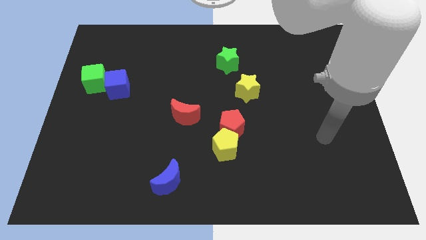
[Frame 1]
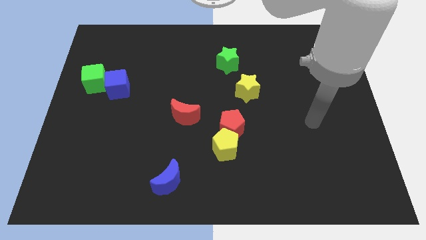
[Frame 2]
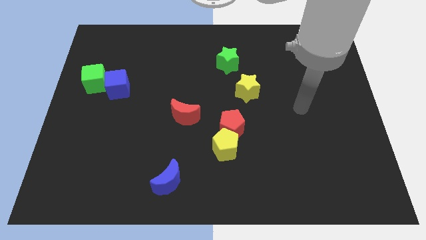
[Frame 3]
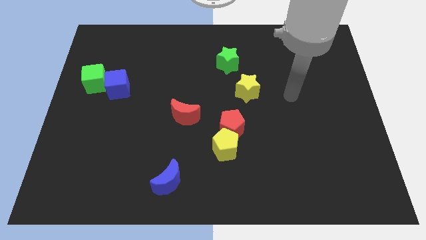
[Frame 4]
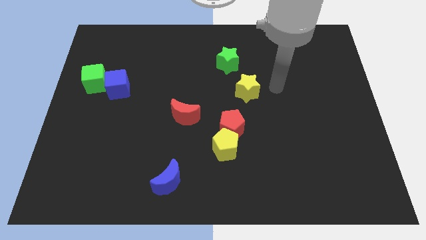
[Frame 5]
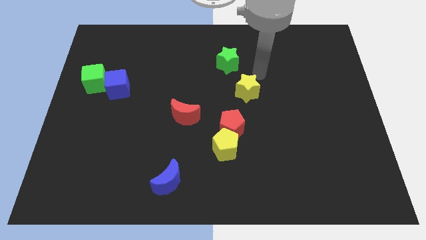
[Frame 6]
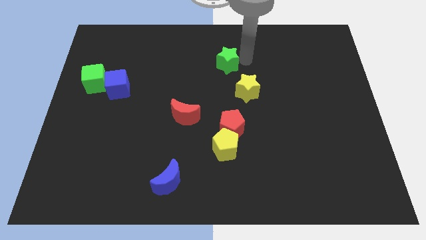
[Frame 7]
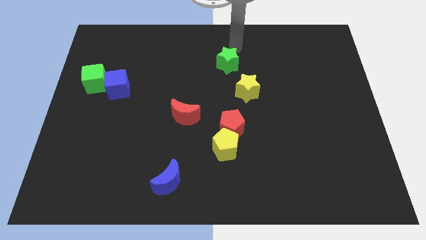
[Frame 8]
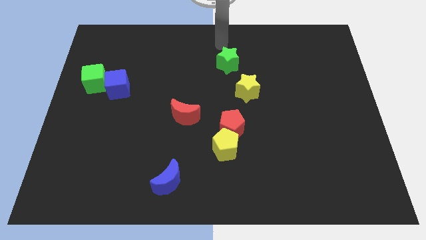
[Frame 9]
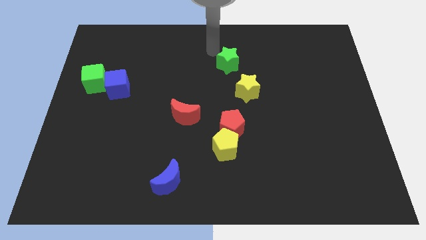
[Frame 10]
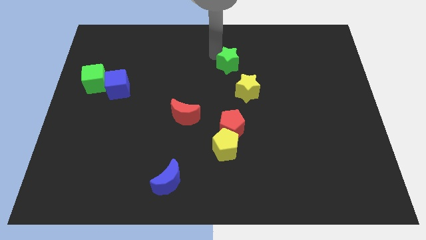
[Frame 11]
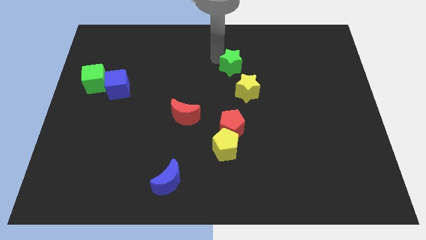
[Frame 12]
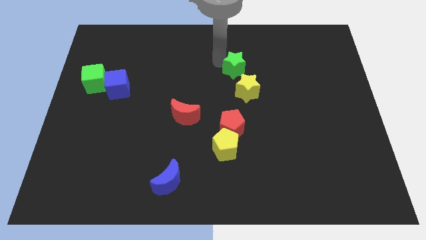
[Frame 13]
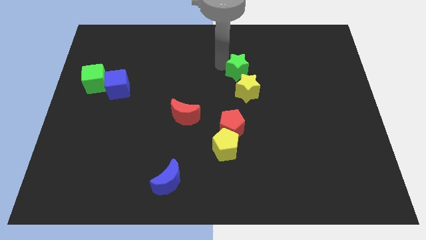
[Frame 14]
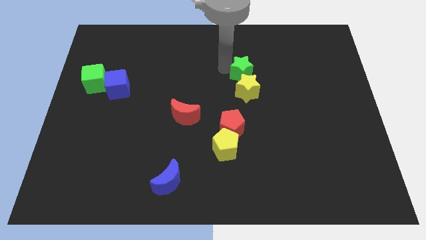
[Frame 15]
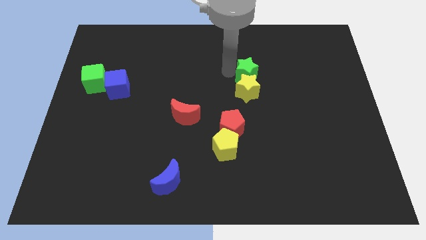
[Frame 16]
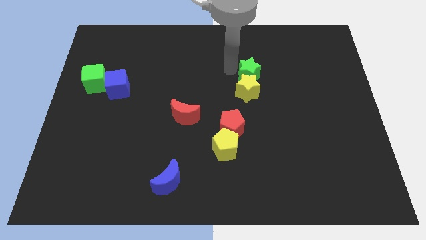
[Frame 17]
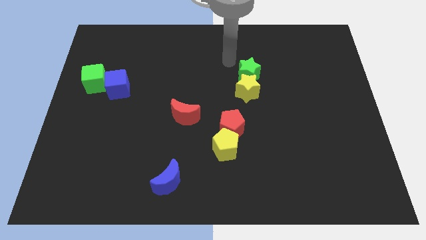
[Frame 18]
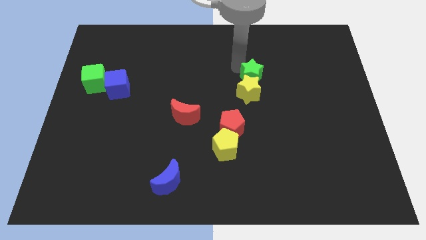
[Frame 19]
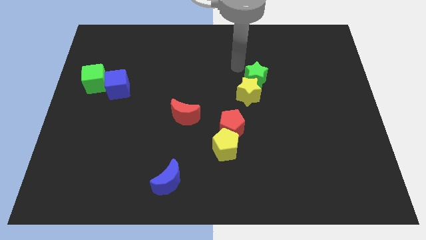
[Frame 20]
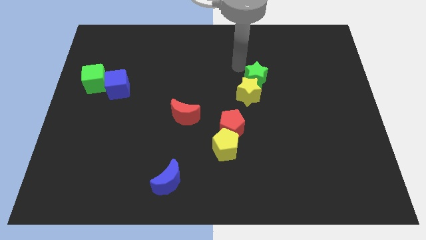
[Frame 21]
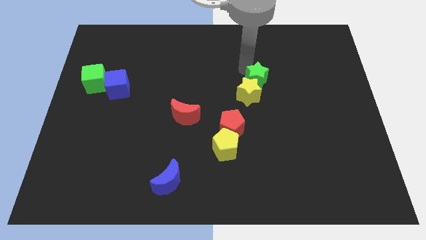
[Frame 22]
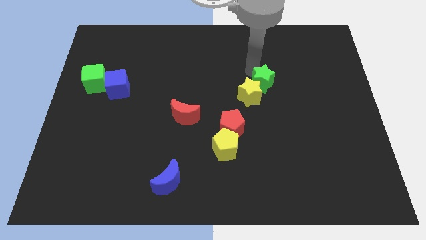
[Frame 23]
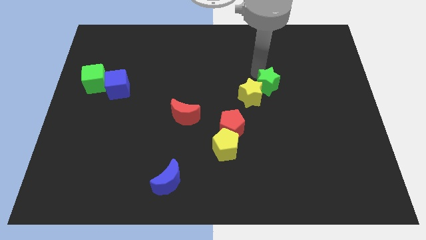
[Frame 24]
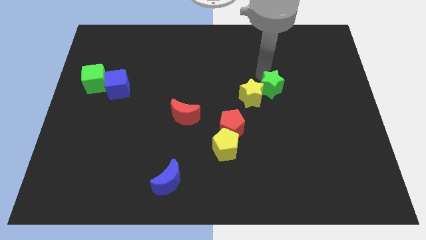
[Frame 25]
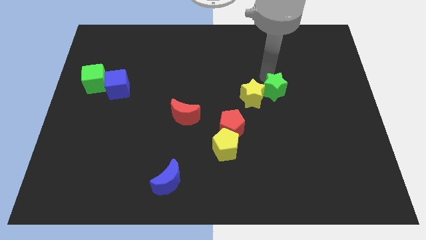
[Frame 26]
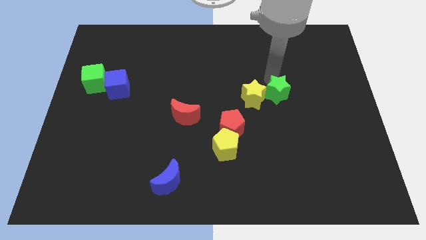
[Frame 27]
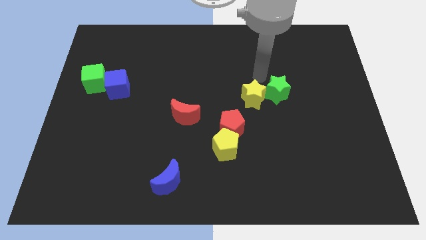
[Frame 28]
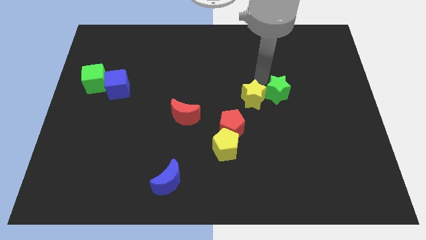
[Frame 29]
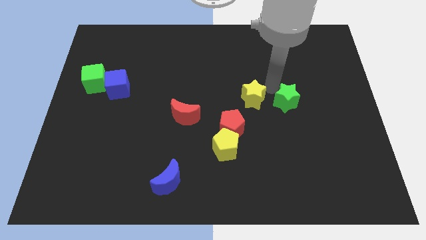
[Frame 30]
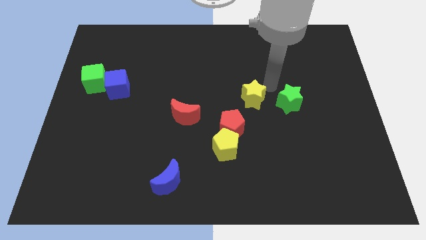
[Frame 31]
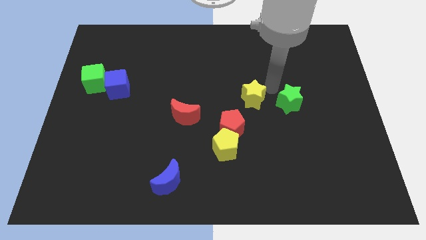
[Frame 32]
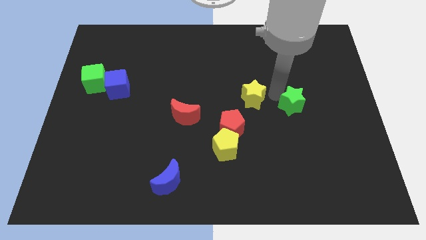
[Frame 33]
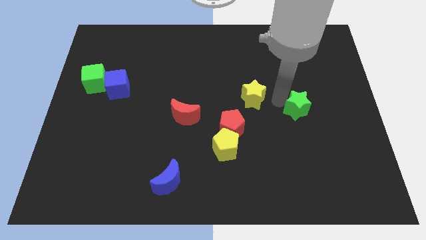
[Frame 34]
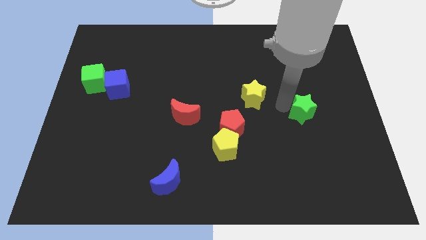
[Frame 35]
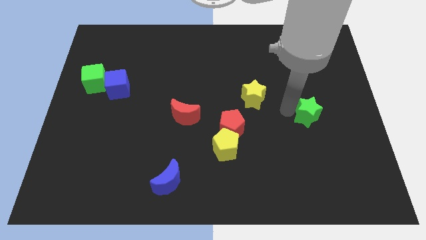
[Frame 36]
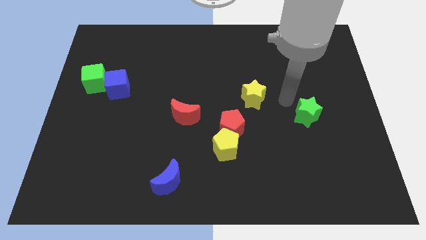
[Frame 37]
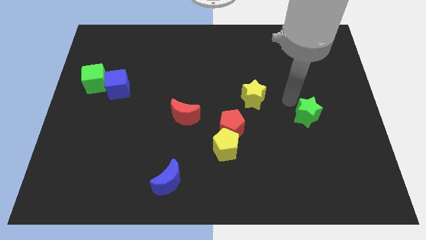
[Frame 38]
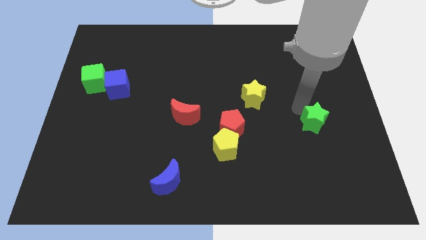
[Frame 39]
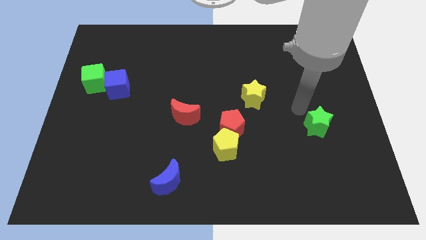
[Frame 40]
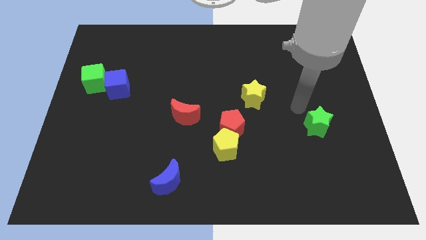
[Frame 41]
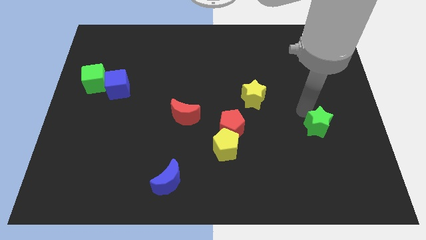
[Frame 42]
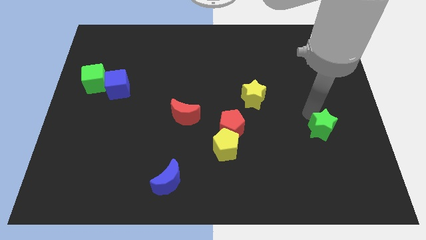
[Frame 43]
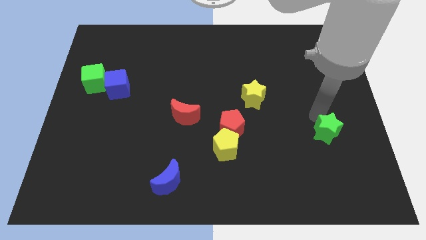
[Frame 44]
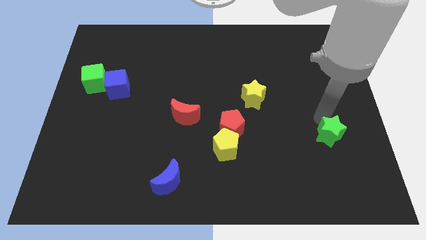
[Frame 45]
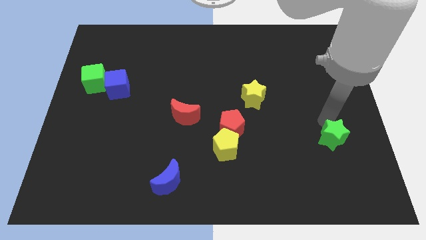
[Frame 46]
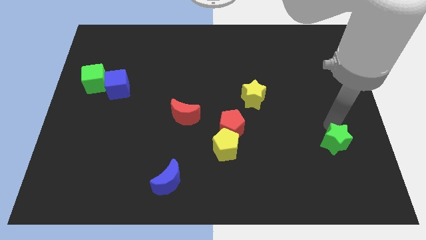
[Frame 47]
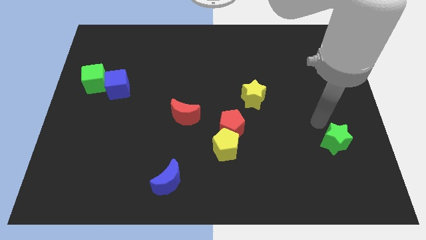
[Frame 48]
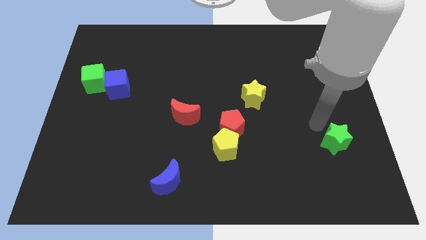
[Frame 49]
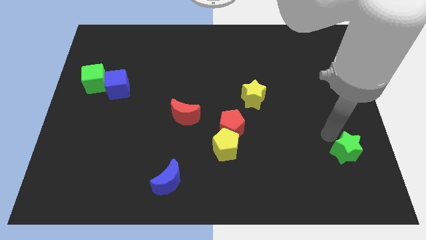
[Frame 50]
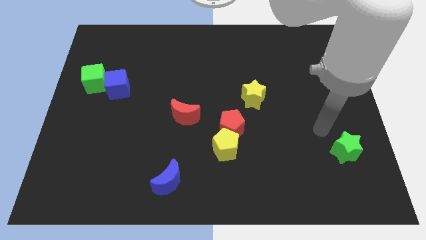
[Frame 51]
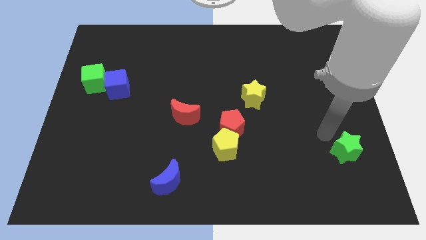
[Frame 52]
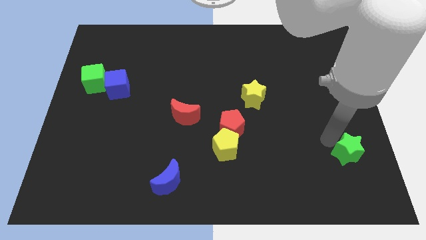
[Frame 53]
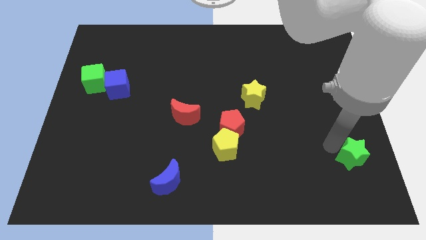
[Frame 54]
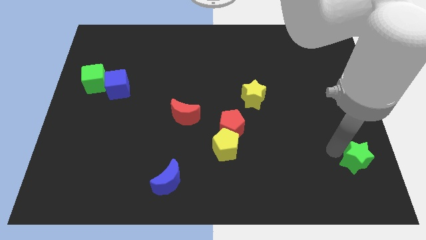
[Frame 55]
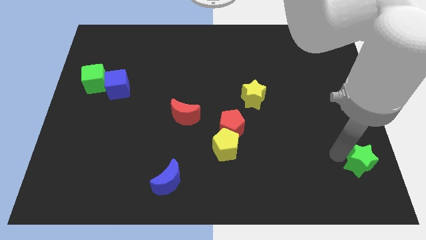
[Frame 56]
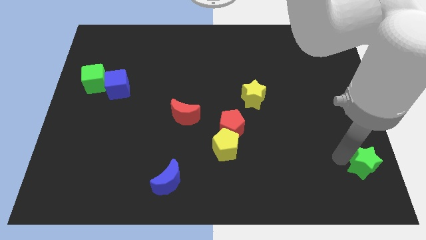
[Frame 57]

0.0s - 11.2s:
slide the green star to the bottom right

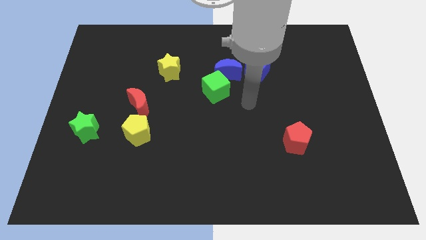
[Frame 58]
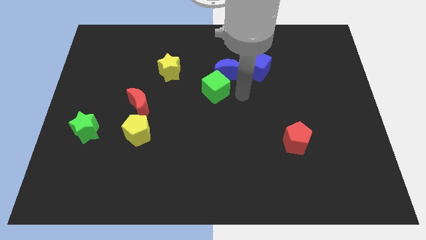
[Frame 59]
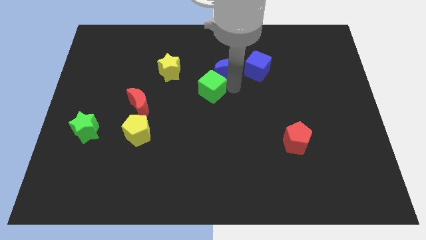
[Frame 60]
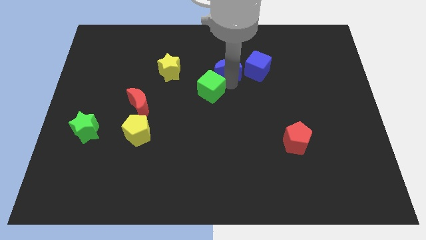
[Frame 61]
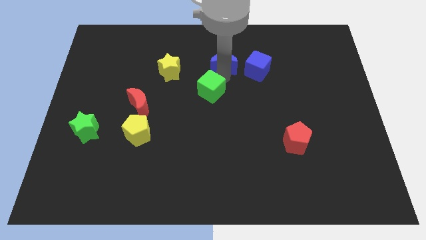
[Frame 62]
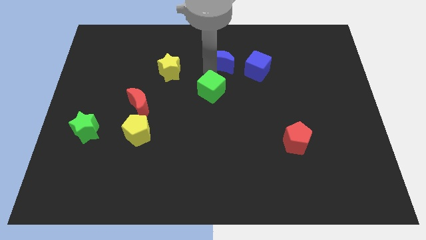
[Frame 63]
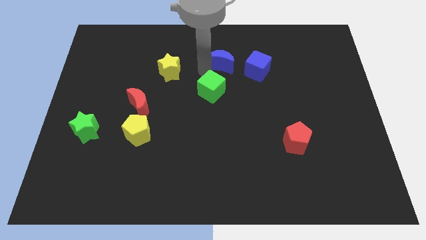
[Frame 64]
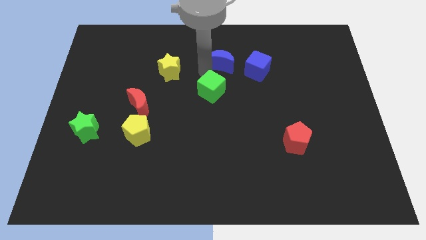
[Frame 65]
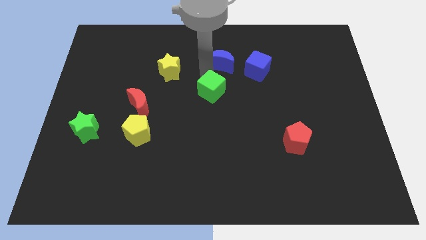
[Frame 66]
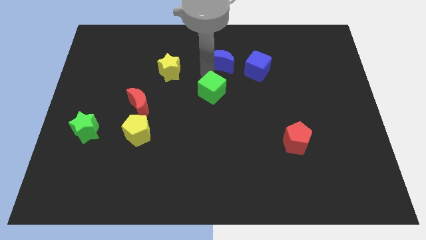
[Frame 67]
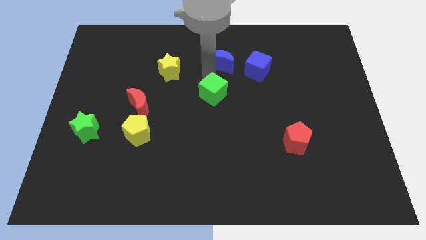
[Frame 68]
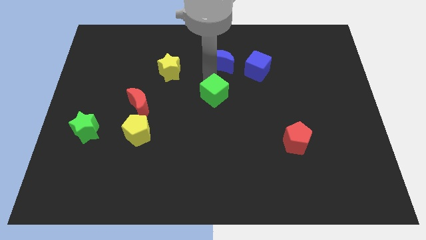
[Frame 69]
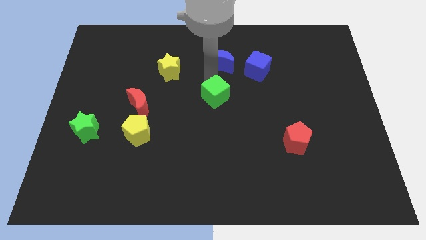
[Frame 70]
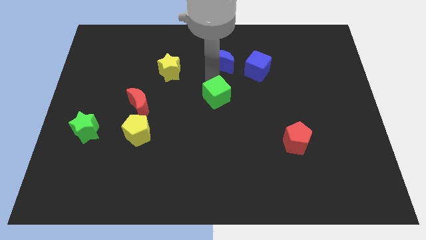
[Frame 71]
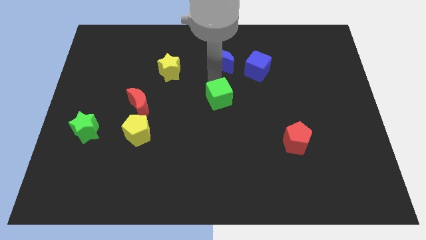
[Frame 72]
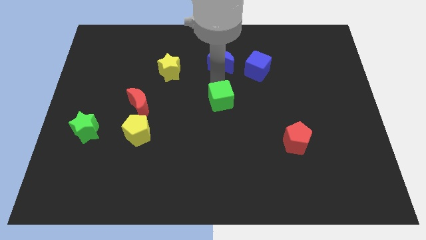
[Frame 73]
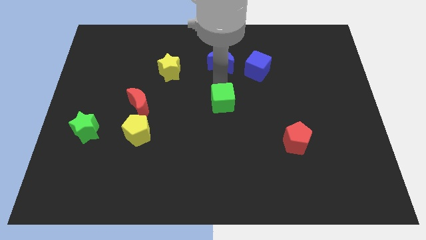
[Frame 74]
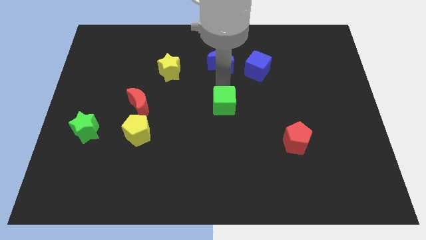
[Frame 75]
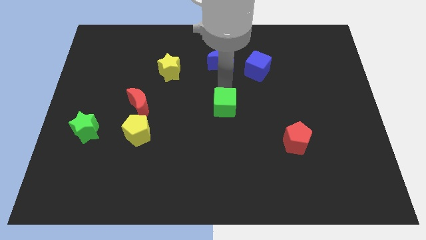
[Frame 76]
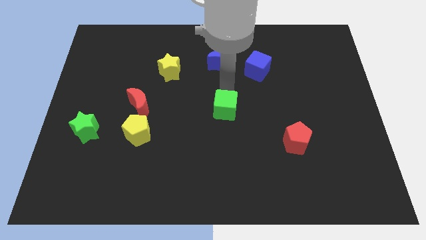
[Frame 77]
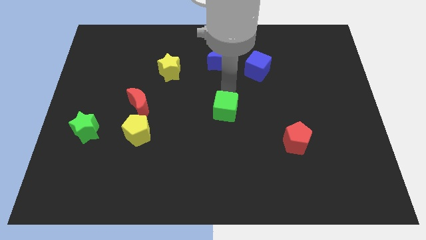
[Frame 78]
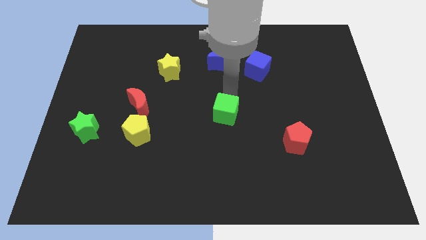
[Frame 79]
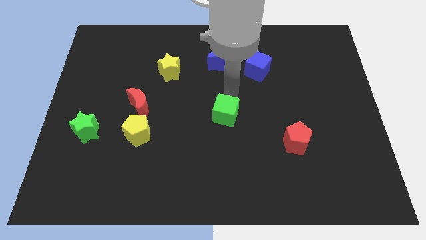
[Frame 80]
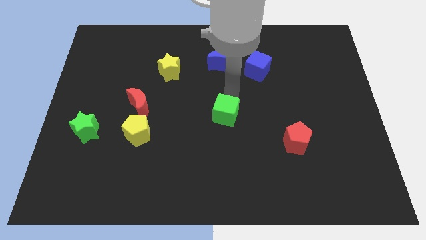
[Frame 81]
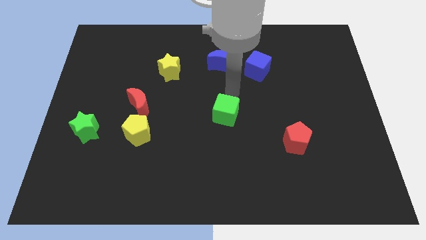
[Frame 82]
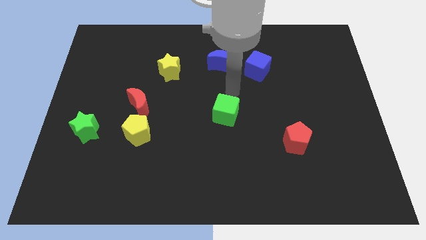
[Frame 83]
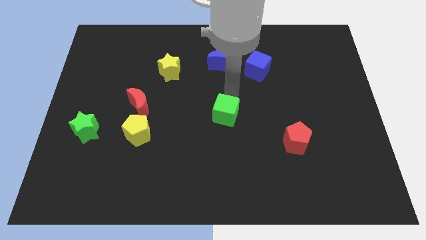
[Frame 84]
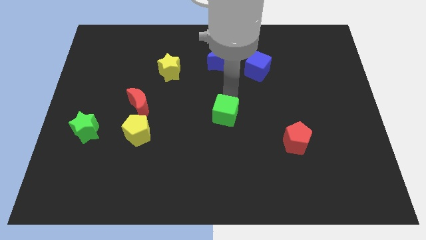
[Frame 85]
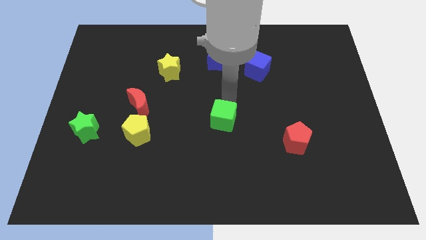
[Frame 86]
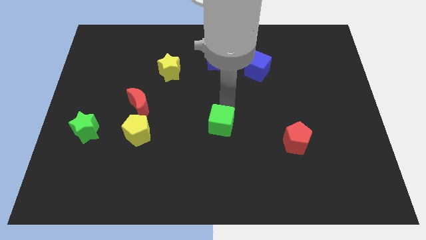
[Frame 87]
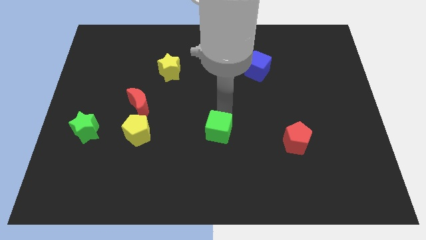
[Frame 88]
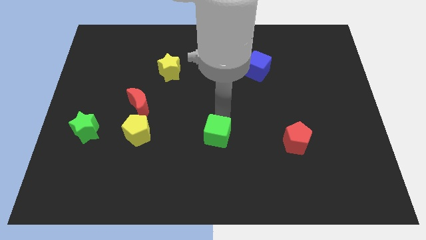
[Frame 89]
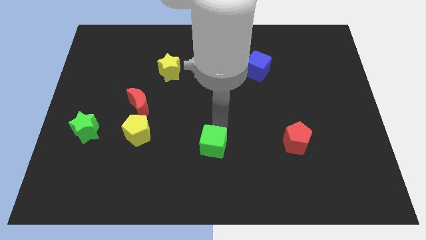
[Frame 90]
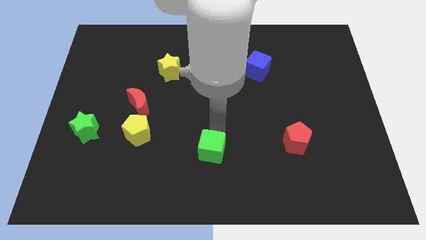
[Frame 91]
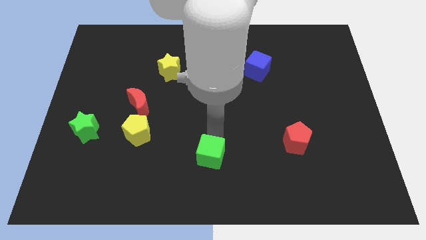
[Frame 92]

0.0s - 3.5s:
push the green cube to the bottom
